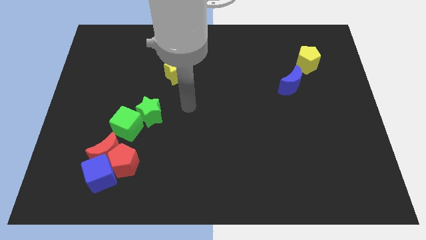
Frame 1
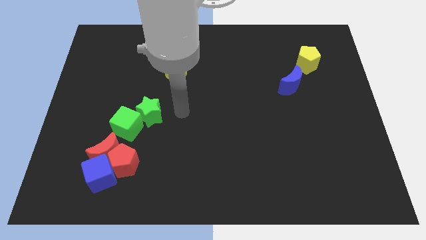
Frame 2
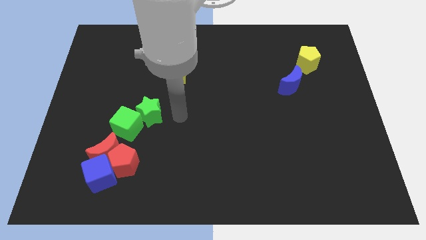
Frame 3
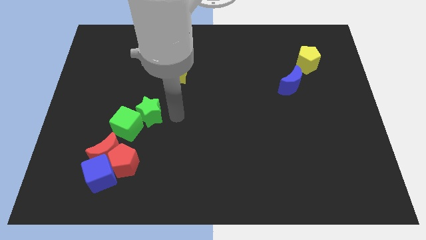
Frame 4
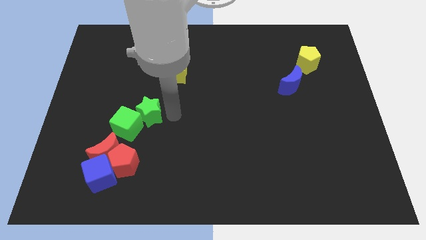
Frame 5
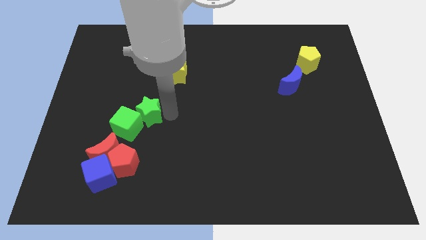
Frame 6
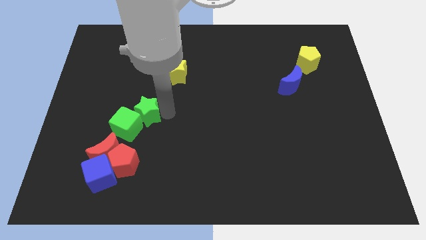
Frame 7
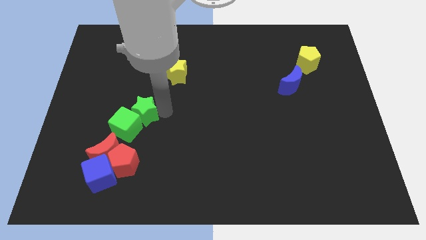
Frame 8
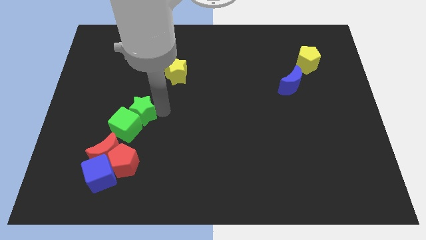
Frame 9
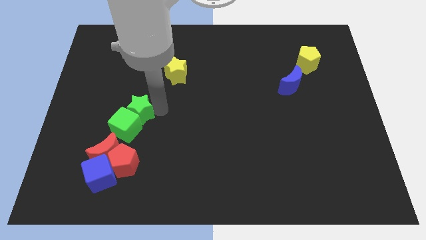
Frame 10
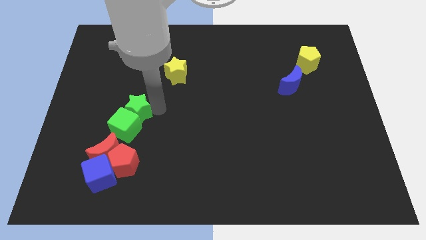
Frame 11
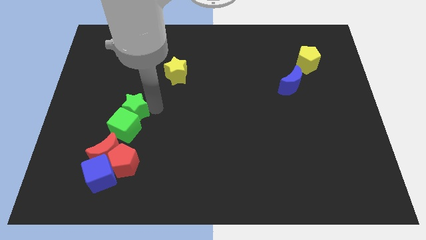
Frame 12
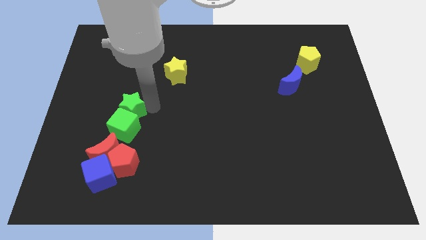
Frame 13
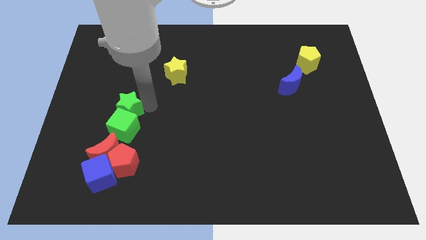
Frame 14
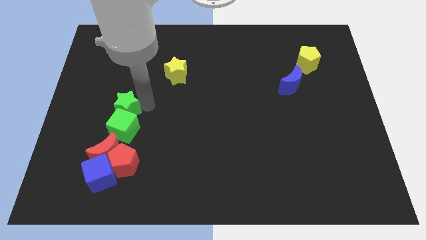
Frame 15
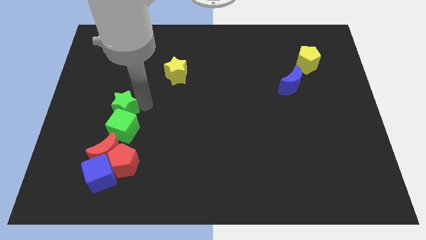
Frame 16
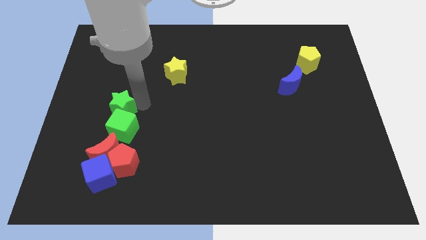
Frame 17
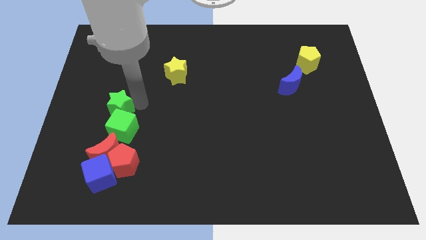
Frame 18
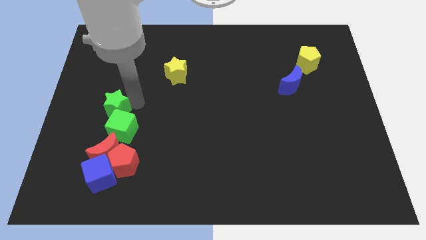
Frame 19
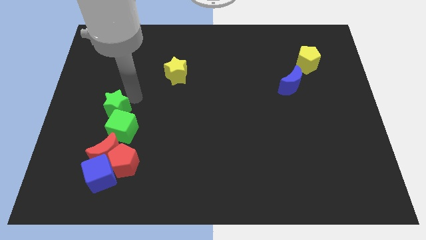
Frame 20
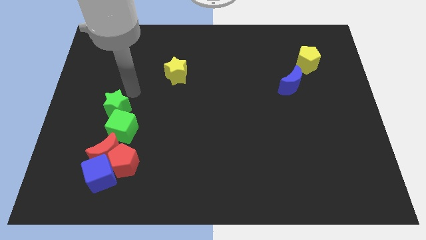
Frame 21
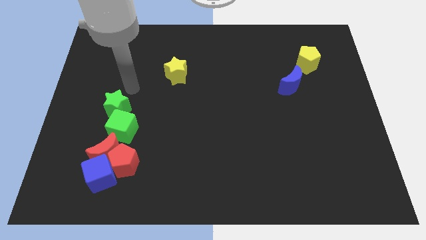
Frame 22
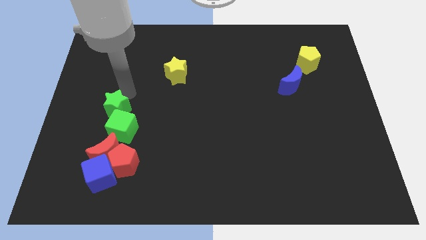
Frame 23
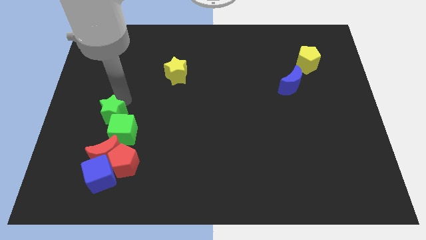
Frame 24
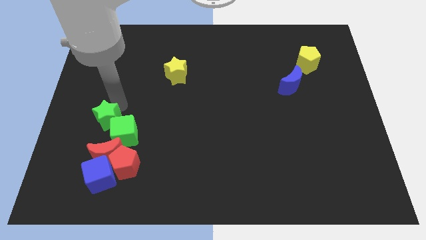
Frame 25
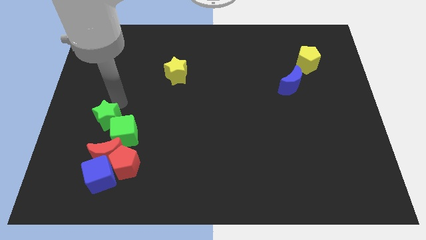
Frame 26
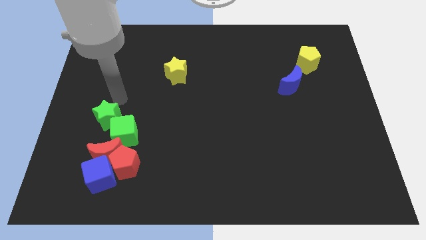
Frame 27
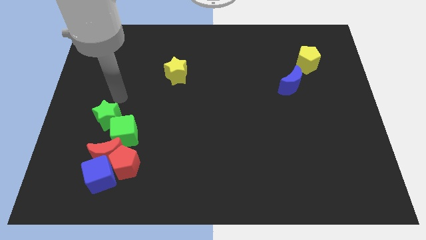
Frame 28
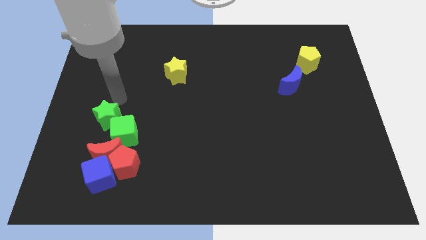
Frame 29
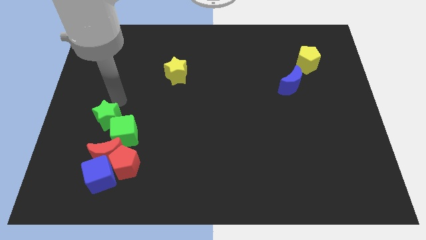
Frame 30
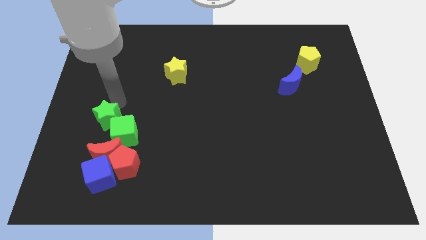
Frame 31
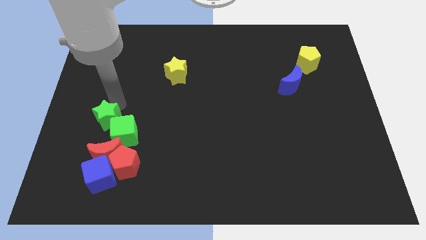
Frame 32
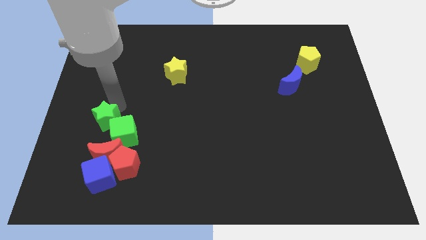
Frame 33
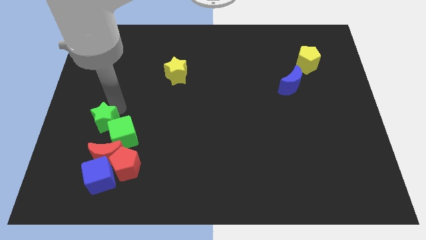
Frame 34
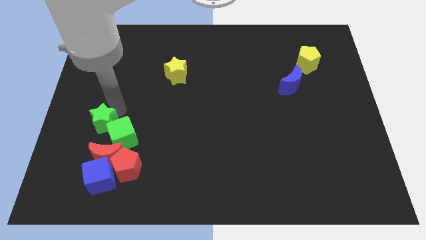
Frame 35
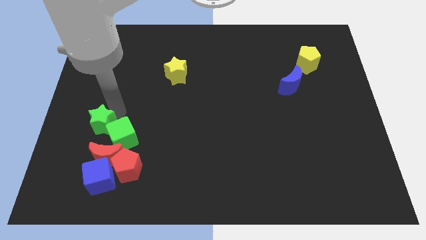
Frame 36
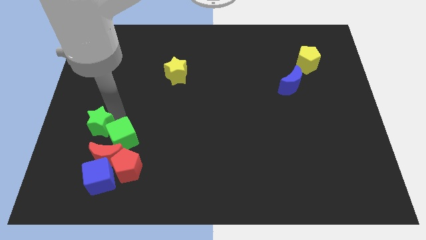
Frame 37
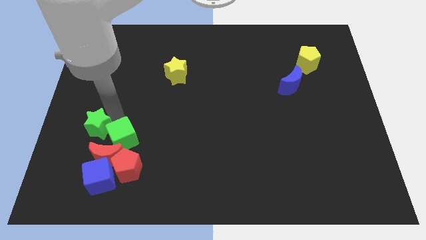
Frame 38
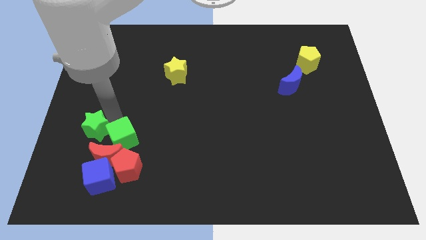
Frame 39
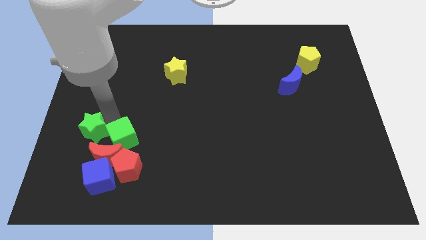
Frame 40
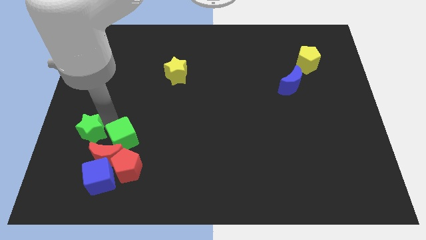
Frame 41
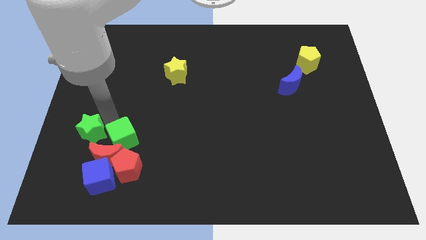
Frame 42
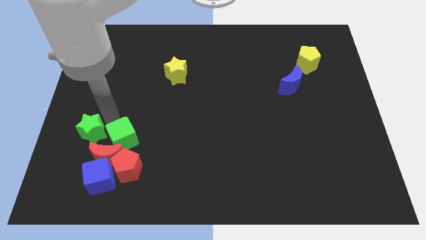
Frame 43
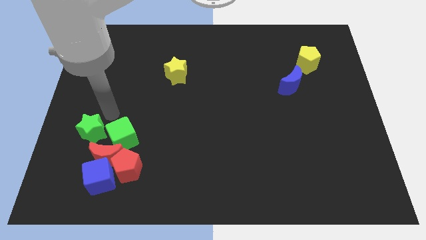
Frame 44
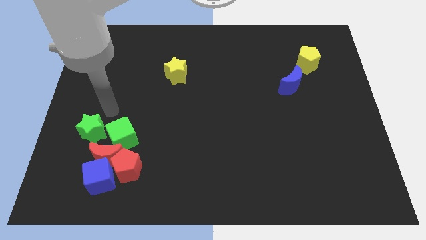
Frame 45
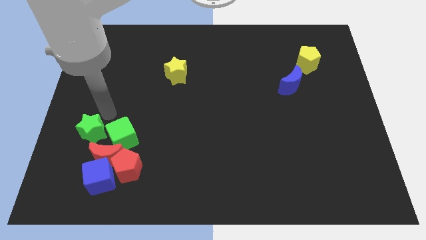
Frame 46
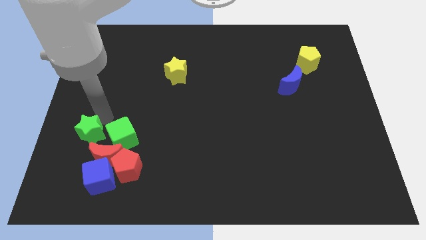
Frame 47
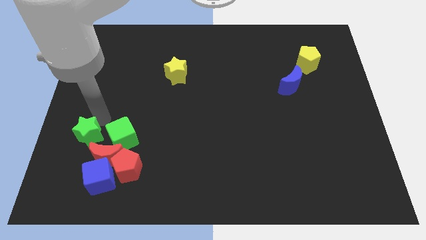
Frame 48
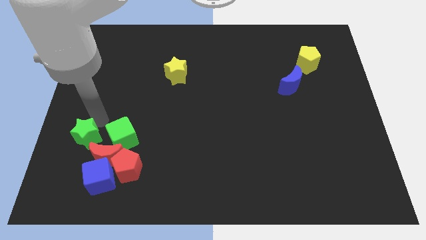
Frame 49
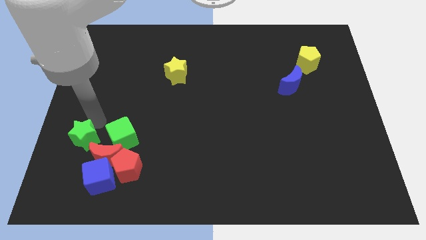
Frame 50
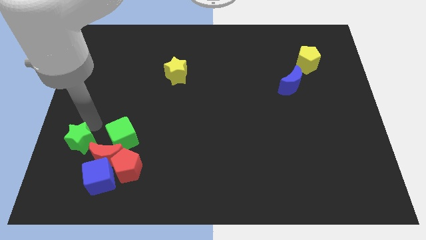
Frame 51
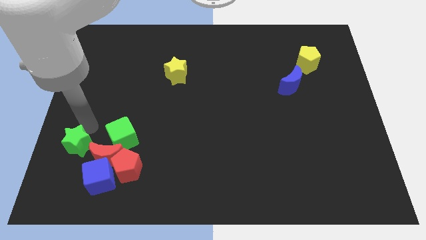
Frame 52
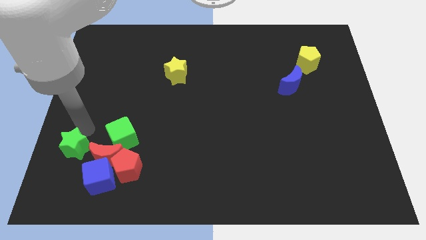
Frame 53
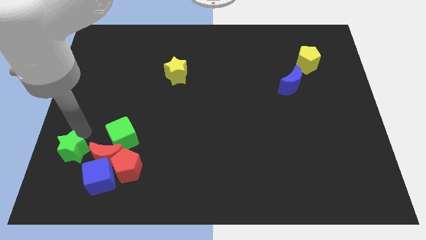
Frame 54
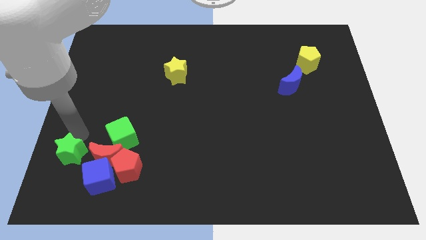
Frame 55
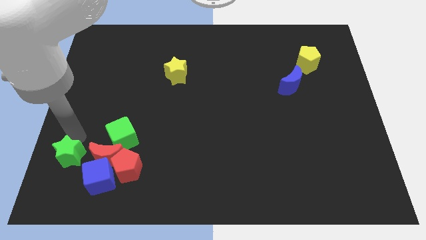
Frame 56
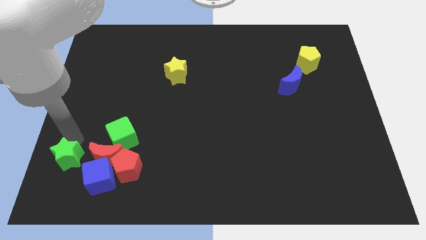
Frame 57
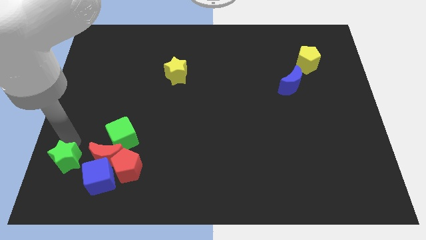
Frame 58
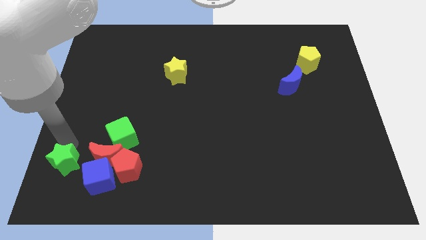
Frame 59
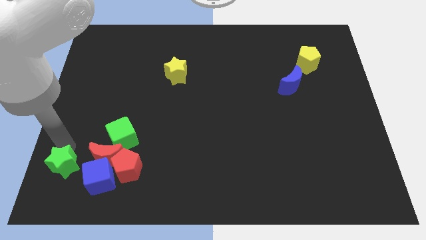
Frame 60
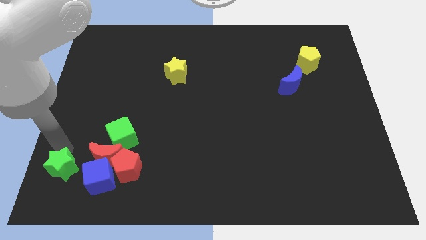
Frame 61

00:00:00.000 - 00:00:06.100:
put the green star to the bottom left of the red moon

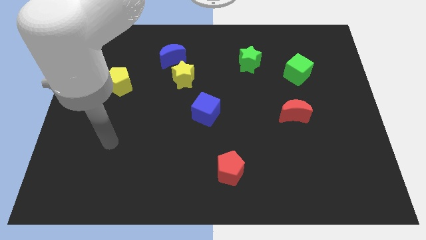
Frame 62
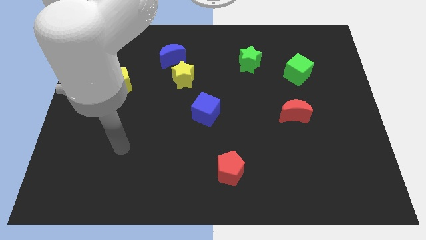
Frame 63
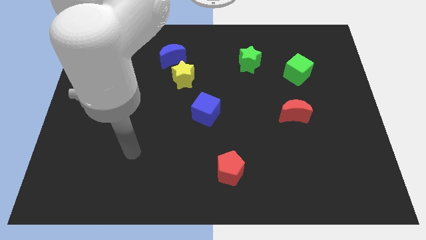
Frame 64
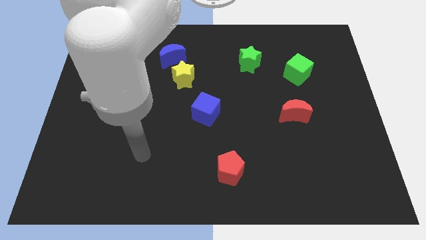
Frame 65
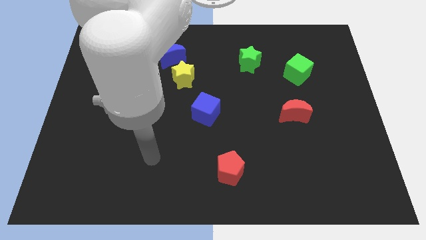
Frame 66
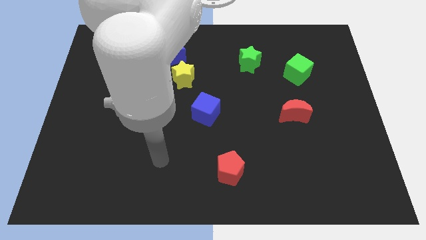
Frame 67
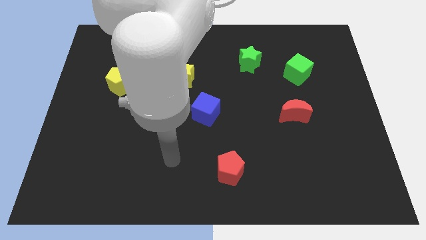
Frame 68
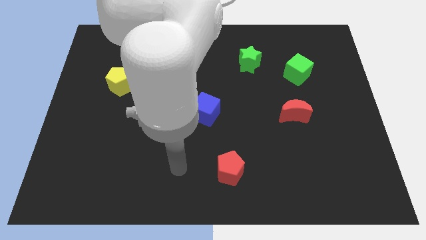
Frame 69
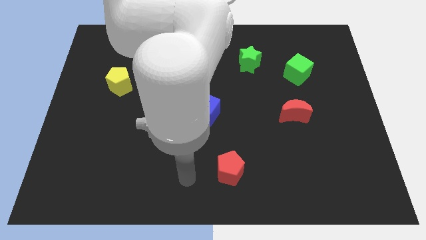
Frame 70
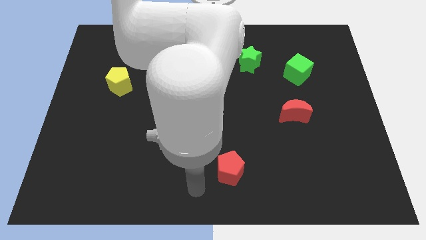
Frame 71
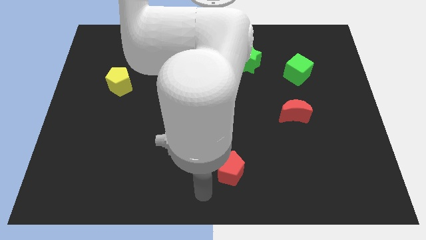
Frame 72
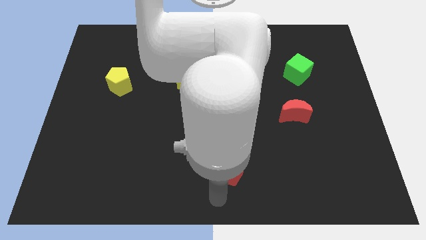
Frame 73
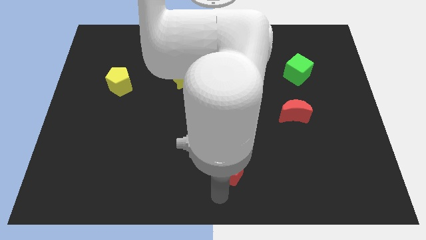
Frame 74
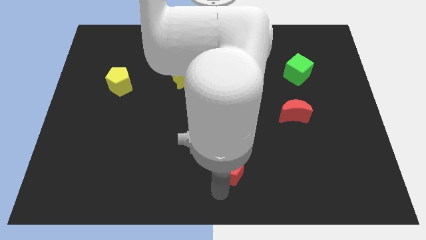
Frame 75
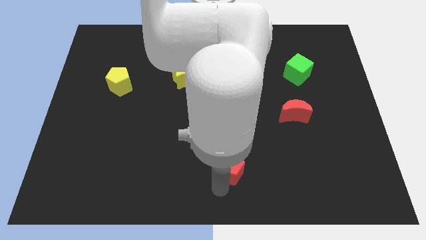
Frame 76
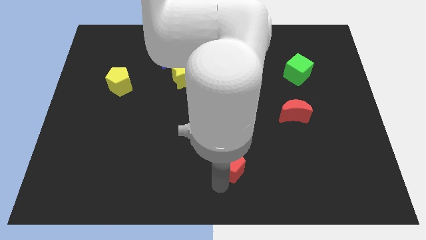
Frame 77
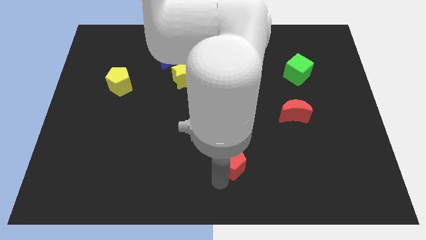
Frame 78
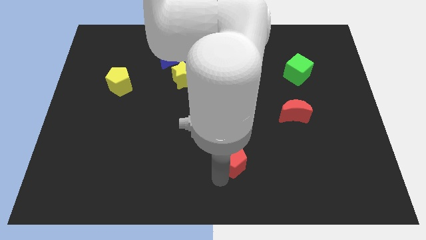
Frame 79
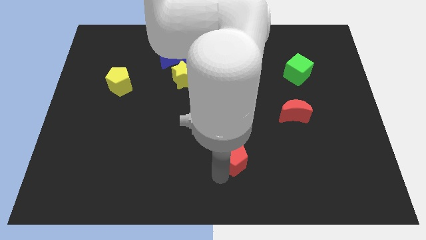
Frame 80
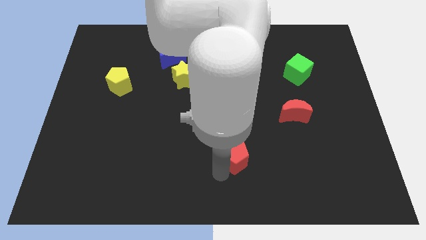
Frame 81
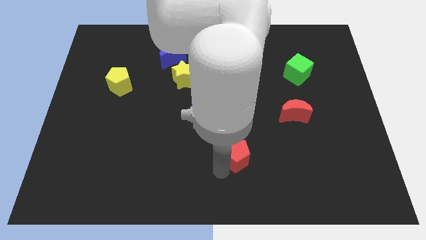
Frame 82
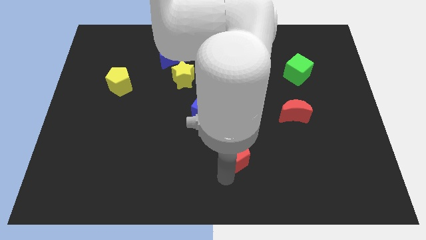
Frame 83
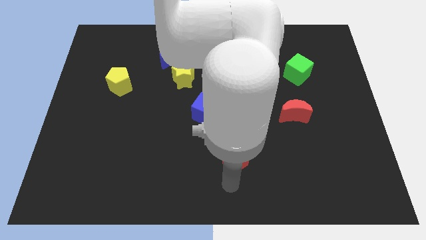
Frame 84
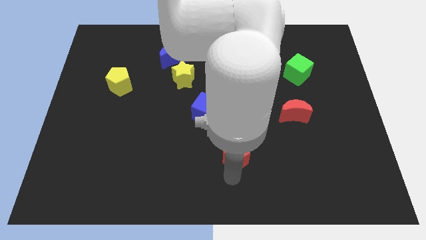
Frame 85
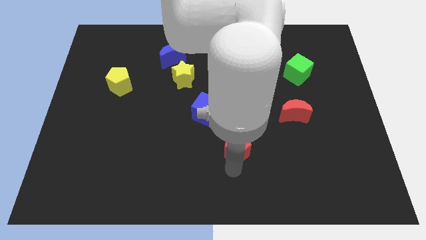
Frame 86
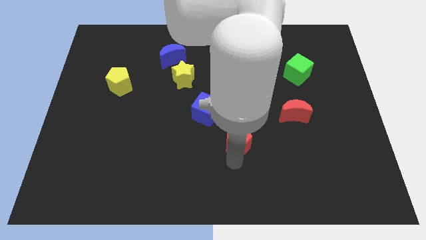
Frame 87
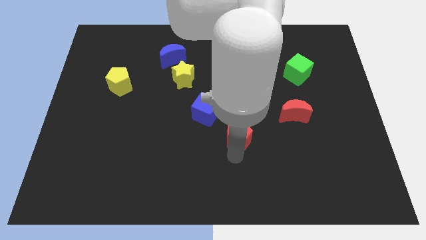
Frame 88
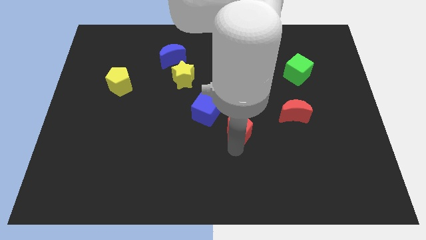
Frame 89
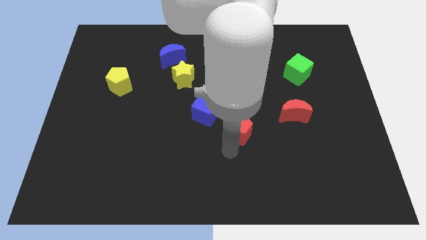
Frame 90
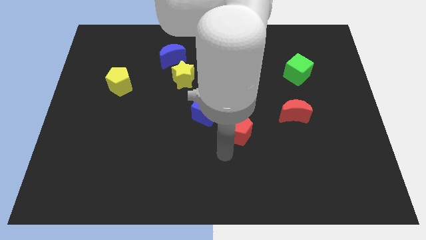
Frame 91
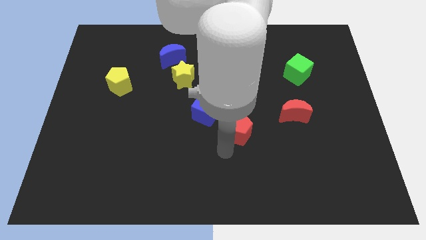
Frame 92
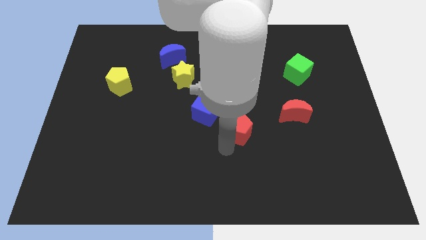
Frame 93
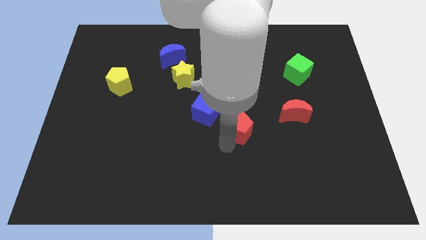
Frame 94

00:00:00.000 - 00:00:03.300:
slide the red pentagon to the left of the red moon
